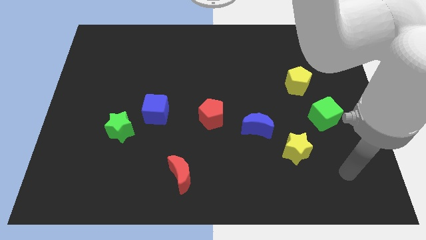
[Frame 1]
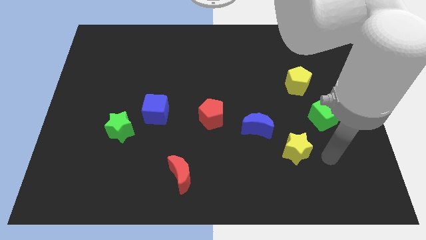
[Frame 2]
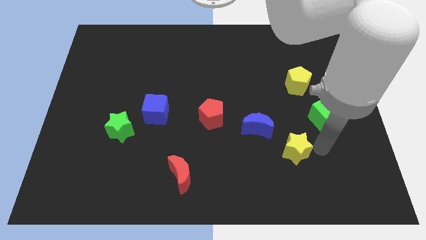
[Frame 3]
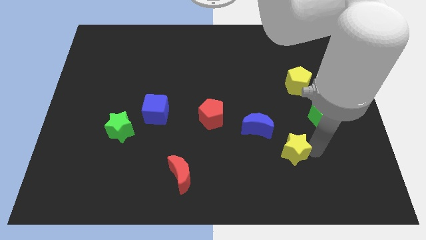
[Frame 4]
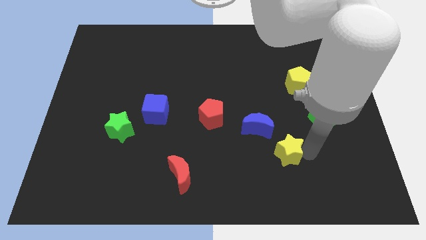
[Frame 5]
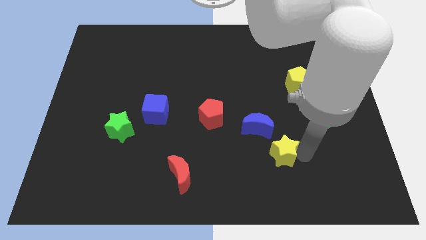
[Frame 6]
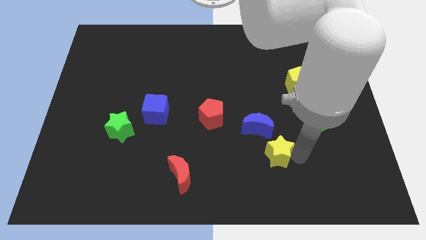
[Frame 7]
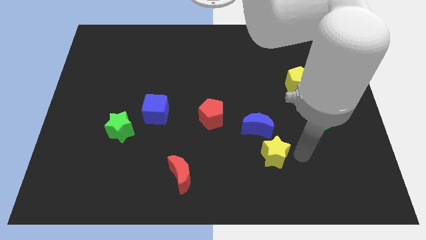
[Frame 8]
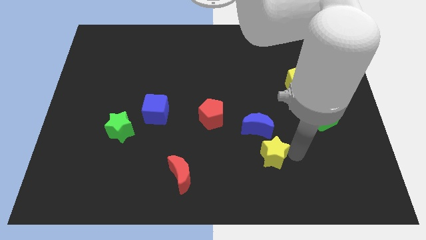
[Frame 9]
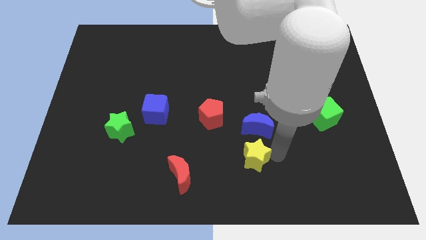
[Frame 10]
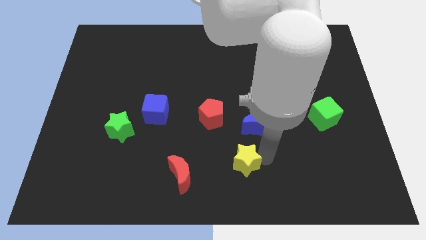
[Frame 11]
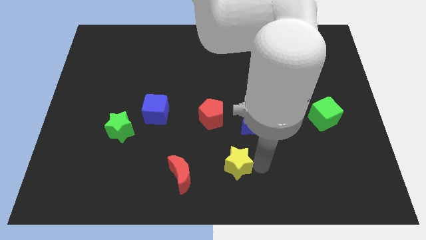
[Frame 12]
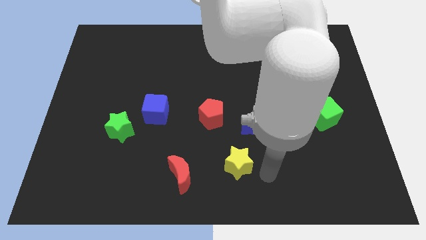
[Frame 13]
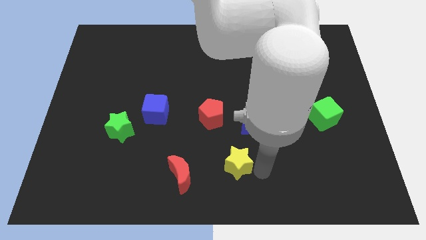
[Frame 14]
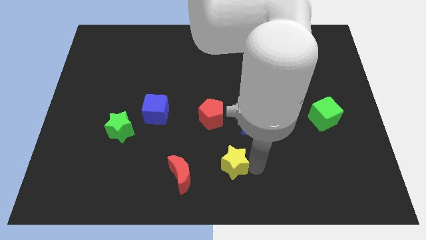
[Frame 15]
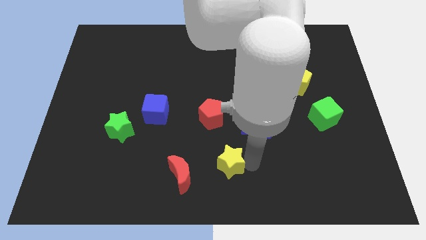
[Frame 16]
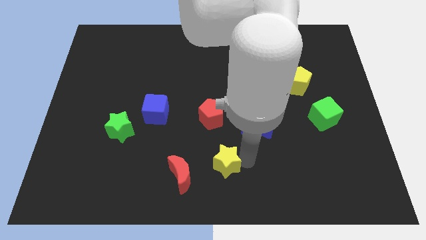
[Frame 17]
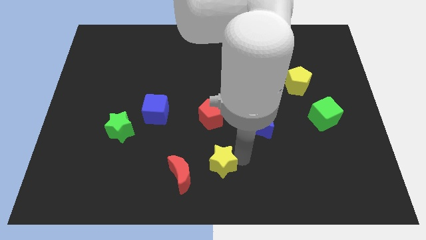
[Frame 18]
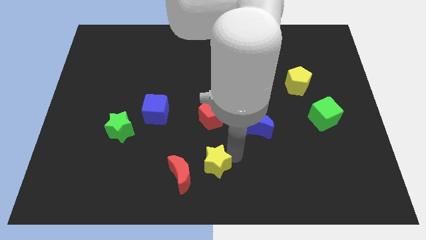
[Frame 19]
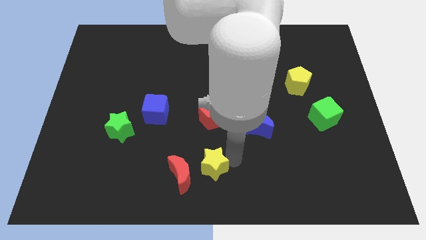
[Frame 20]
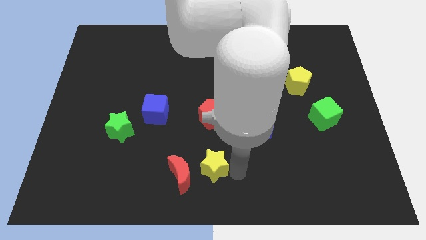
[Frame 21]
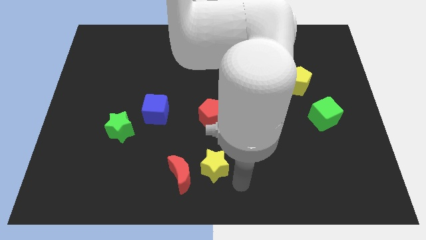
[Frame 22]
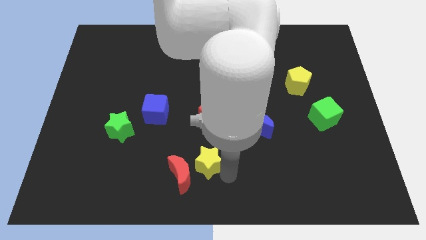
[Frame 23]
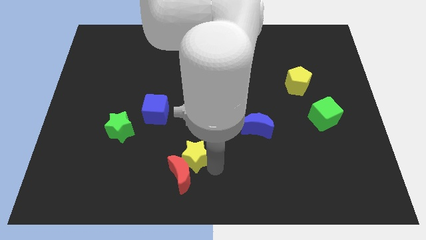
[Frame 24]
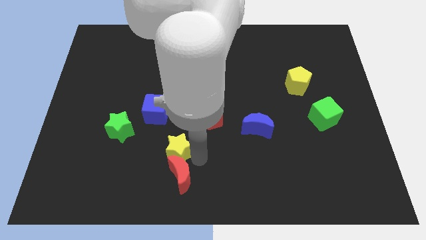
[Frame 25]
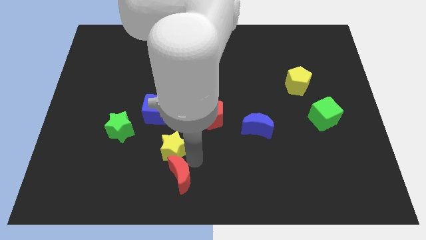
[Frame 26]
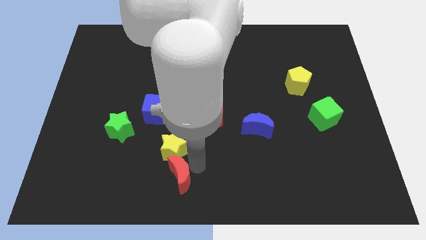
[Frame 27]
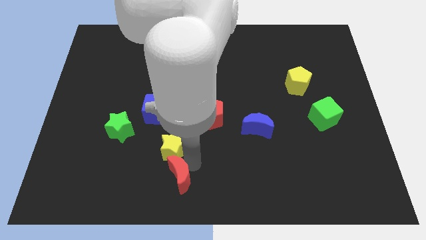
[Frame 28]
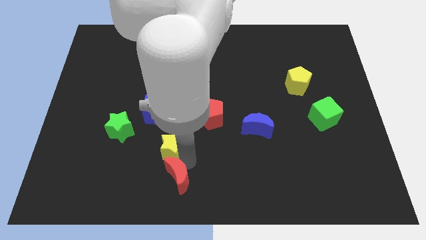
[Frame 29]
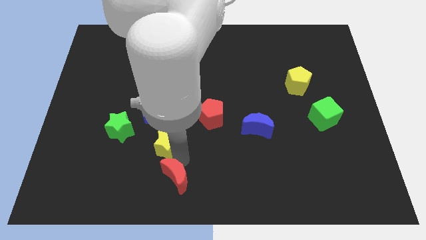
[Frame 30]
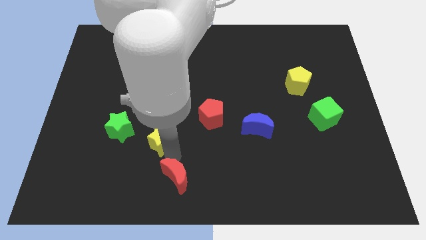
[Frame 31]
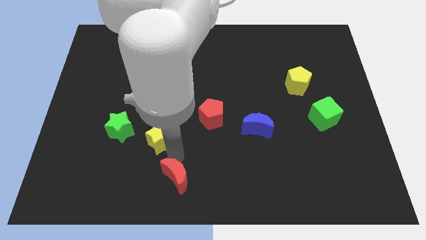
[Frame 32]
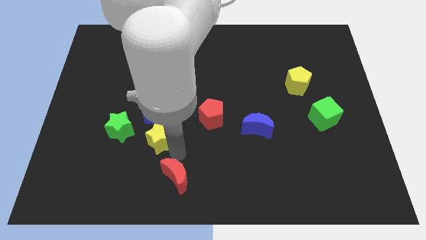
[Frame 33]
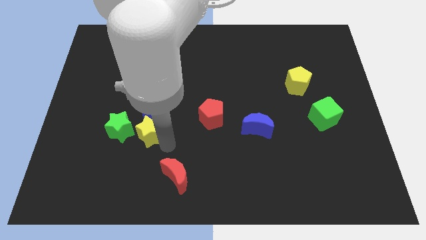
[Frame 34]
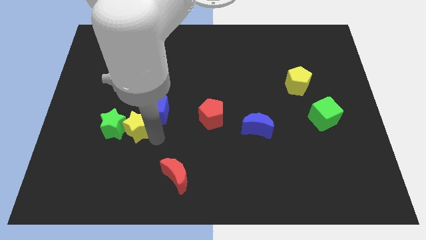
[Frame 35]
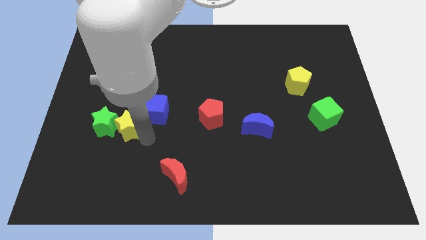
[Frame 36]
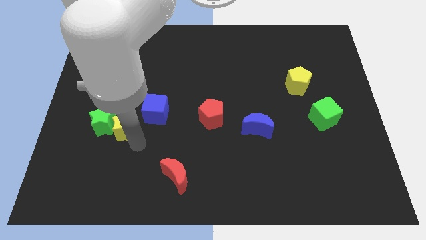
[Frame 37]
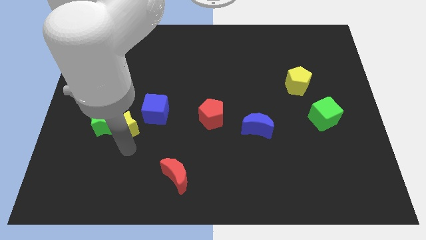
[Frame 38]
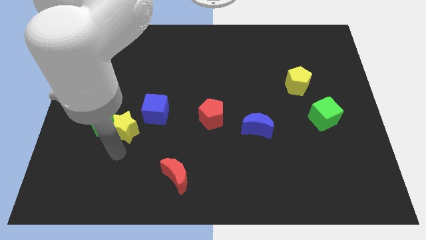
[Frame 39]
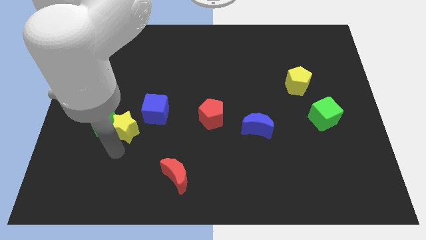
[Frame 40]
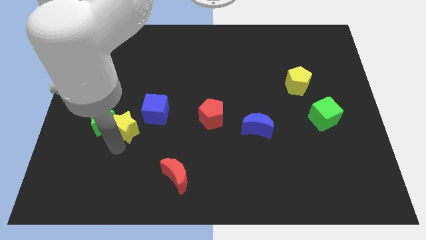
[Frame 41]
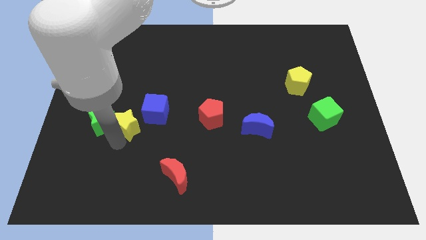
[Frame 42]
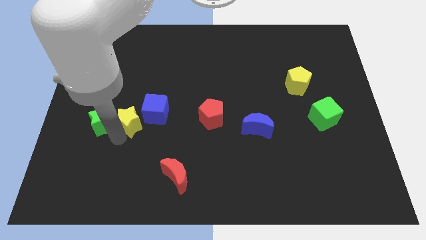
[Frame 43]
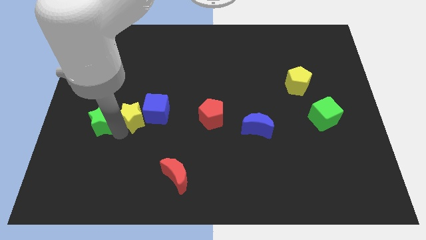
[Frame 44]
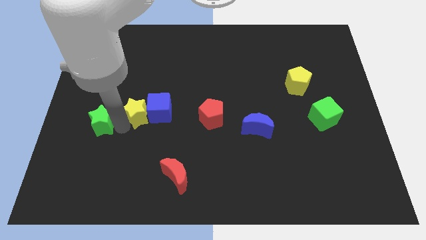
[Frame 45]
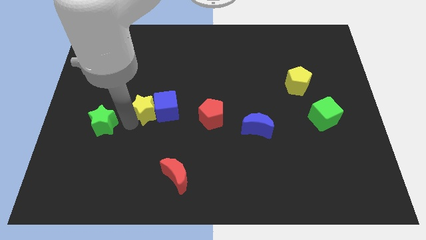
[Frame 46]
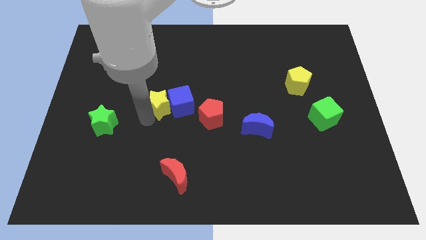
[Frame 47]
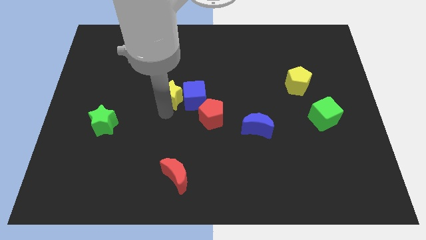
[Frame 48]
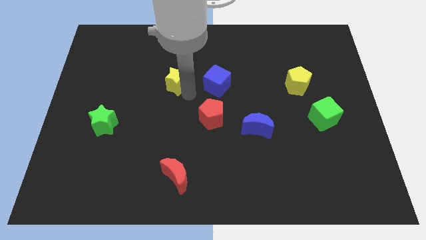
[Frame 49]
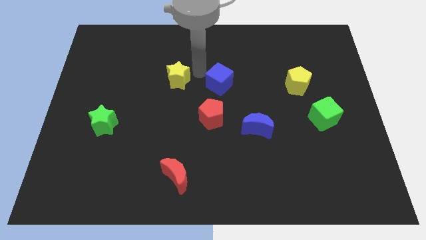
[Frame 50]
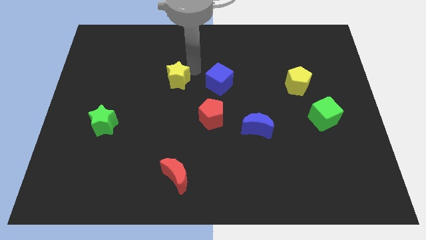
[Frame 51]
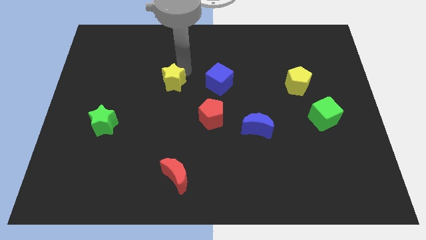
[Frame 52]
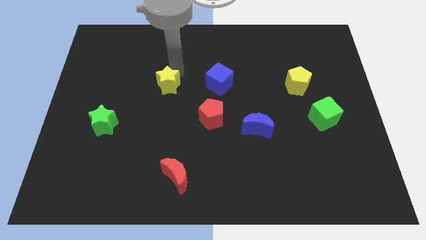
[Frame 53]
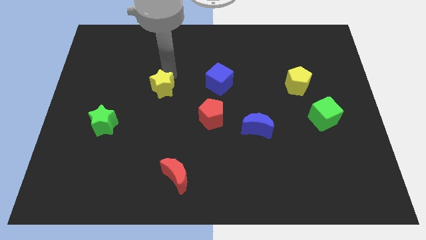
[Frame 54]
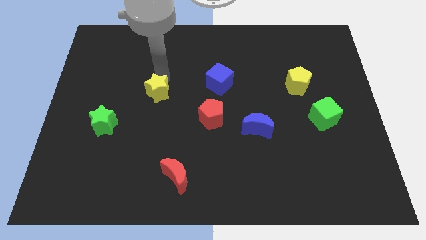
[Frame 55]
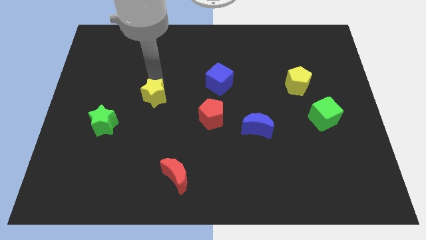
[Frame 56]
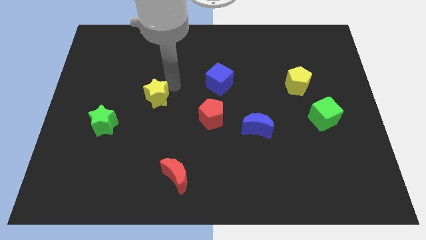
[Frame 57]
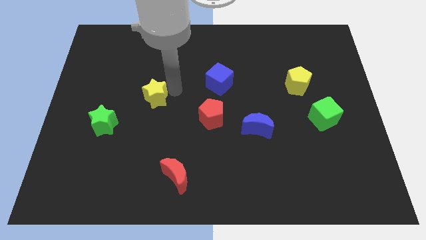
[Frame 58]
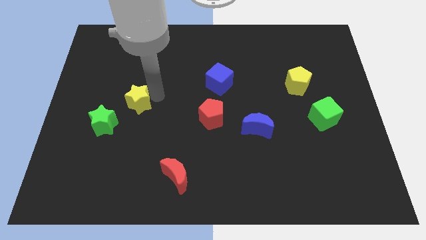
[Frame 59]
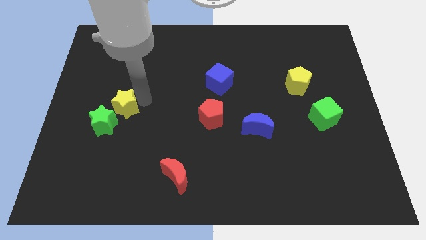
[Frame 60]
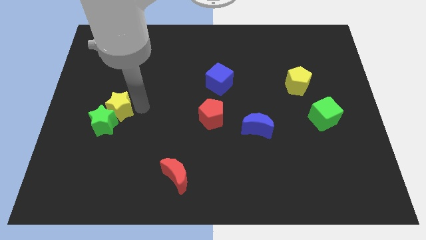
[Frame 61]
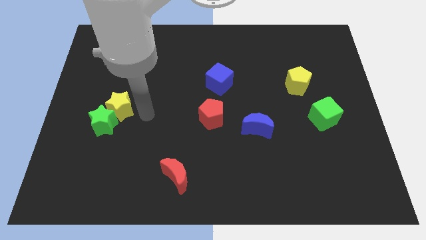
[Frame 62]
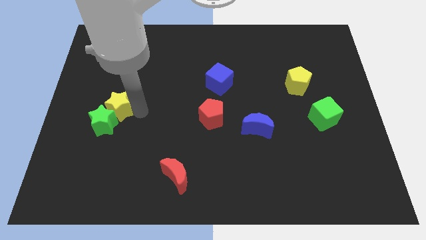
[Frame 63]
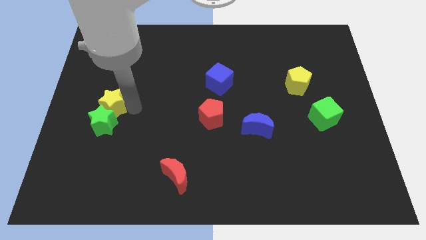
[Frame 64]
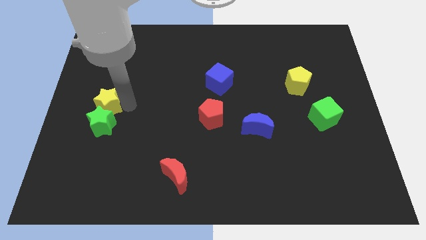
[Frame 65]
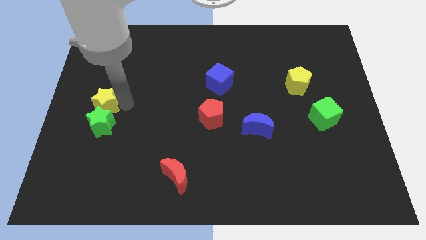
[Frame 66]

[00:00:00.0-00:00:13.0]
push the yellow star to the center left

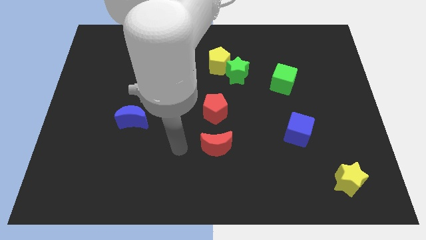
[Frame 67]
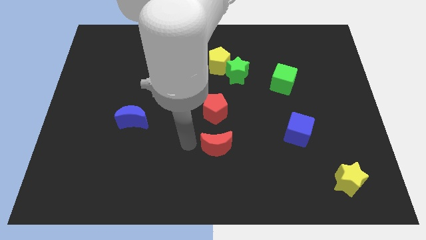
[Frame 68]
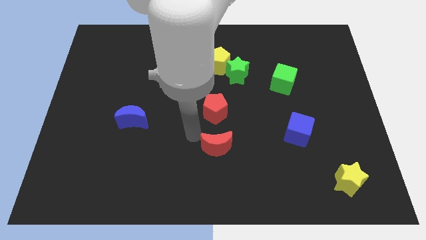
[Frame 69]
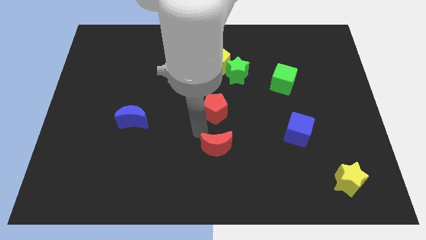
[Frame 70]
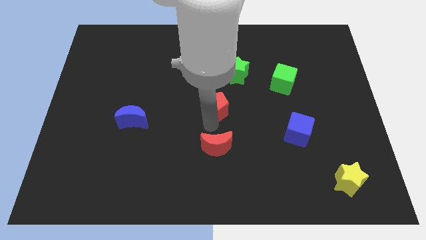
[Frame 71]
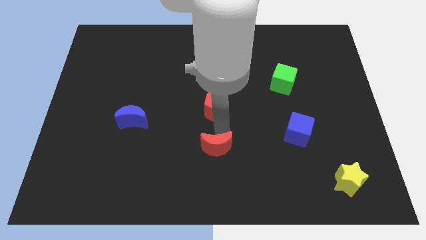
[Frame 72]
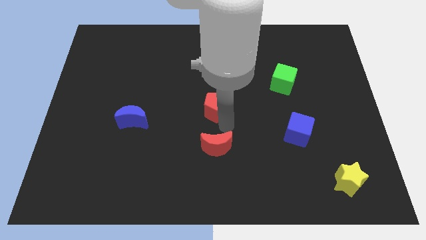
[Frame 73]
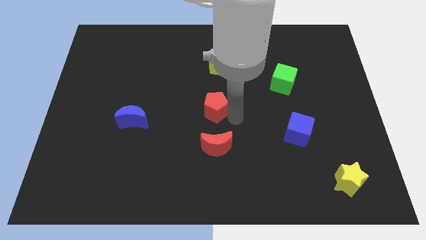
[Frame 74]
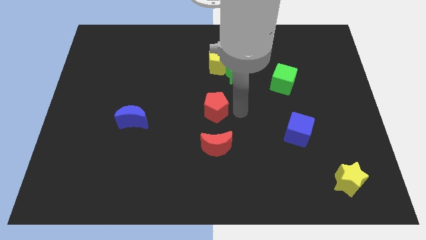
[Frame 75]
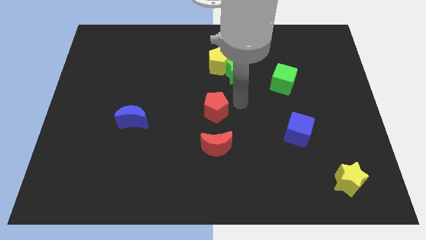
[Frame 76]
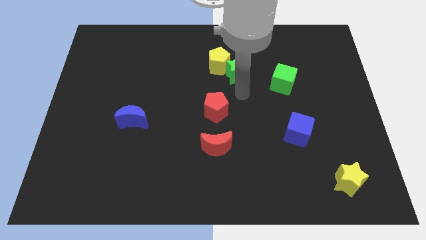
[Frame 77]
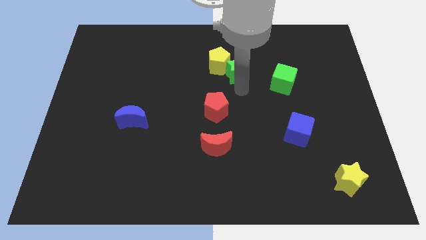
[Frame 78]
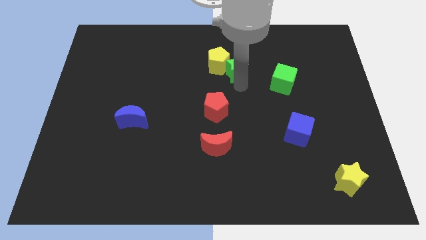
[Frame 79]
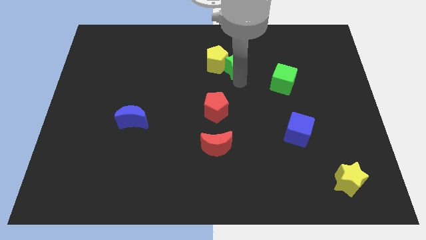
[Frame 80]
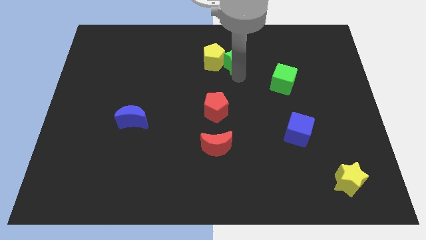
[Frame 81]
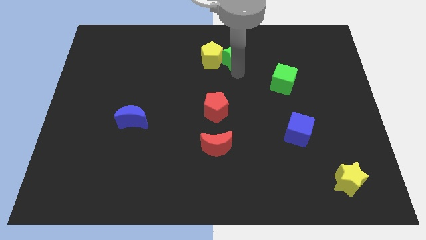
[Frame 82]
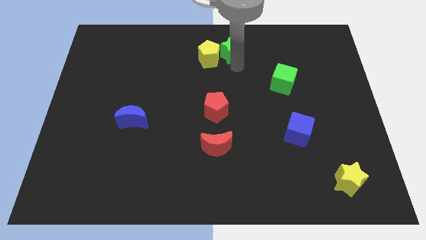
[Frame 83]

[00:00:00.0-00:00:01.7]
put the green star to the top side
